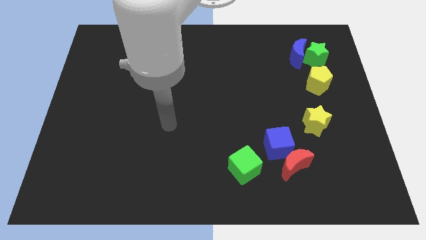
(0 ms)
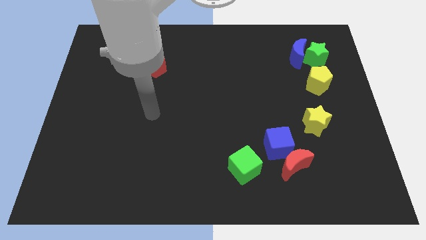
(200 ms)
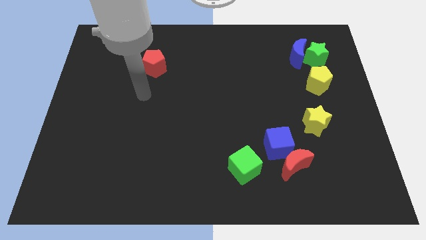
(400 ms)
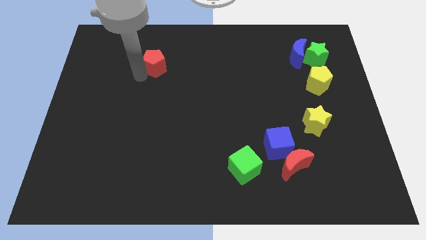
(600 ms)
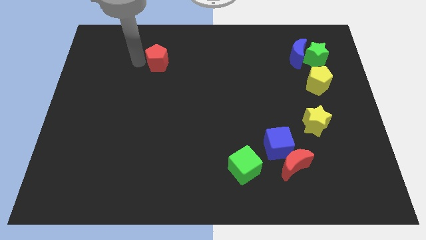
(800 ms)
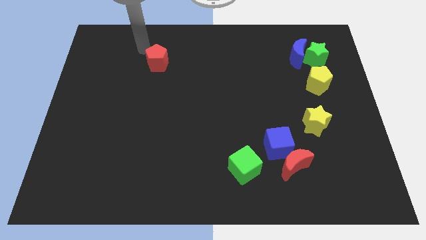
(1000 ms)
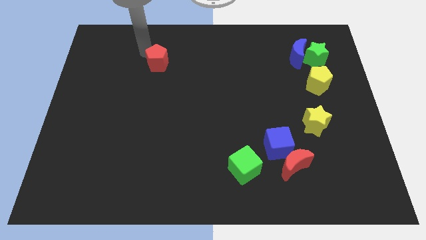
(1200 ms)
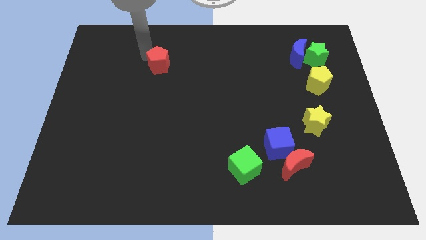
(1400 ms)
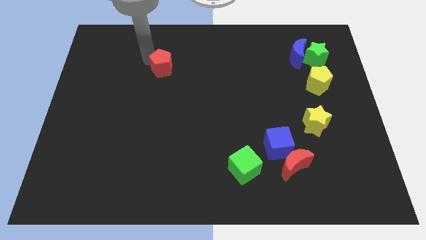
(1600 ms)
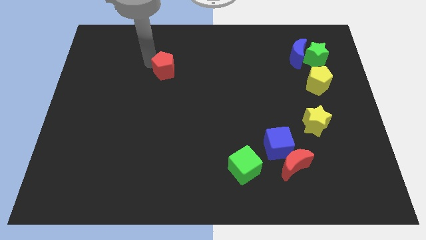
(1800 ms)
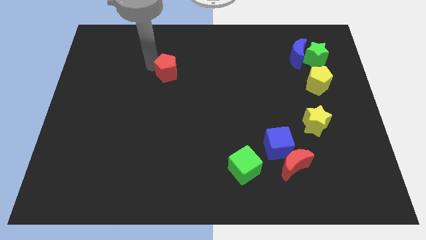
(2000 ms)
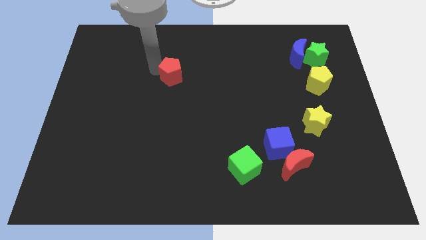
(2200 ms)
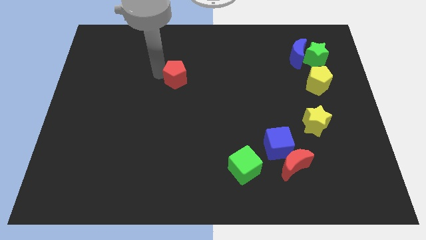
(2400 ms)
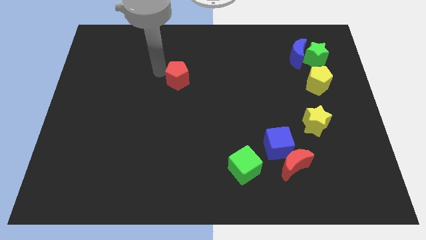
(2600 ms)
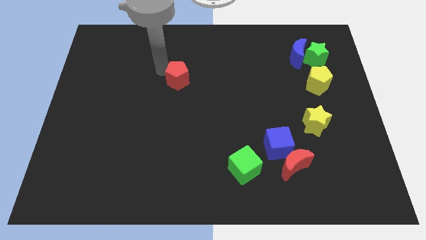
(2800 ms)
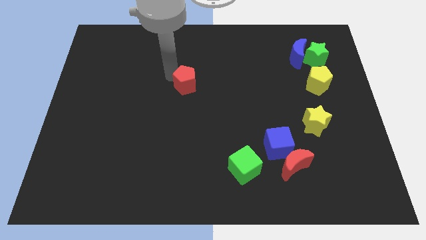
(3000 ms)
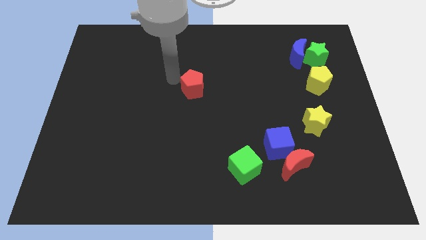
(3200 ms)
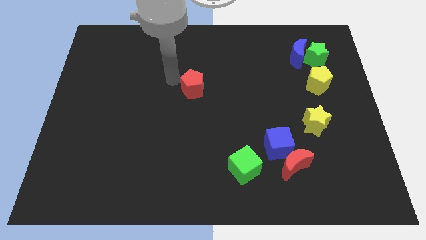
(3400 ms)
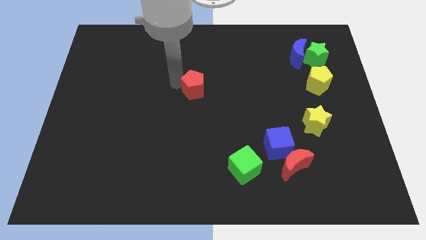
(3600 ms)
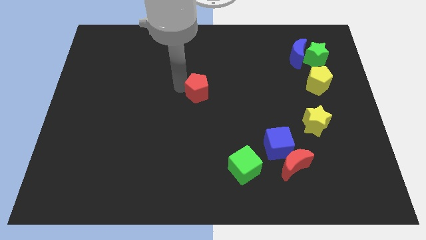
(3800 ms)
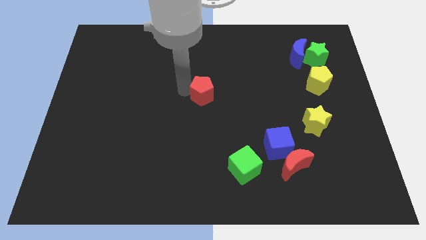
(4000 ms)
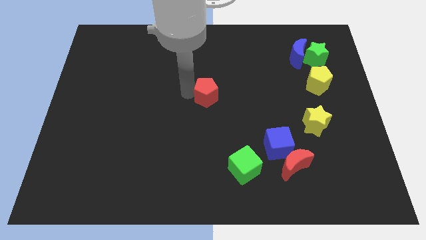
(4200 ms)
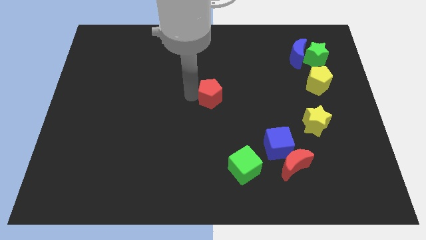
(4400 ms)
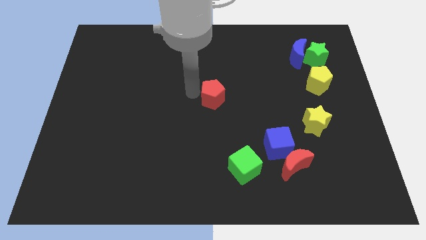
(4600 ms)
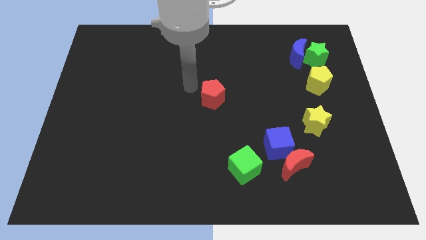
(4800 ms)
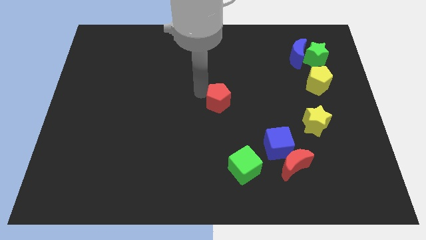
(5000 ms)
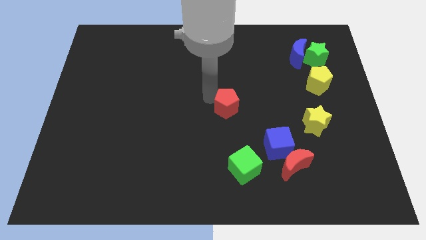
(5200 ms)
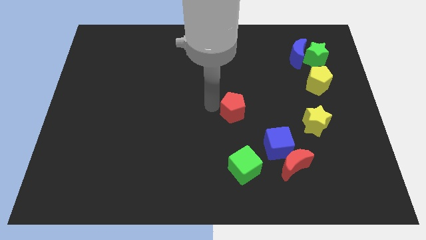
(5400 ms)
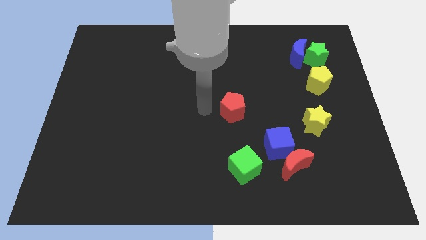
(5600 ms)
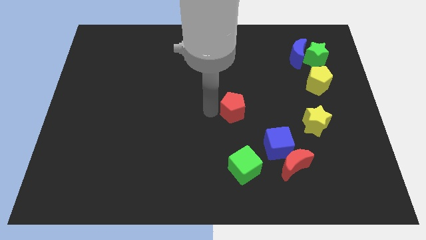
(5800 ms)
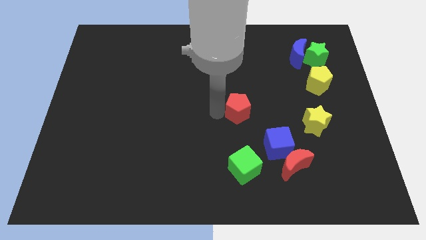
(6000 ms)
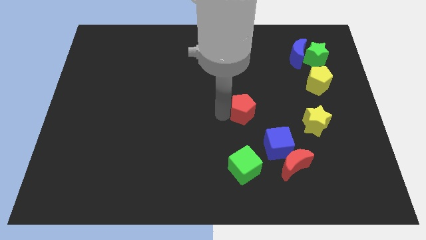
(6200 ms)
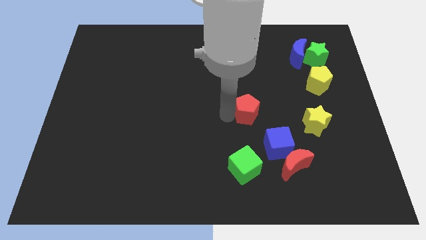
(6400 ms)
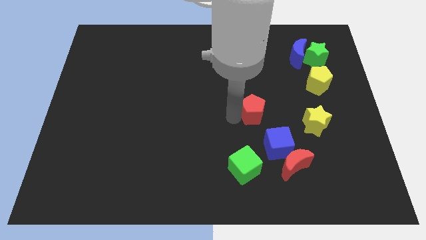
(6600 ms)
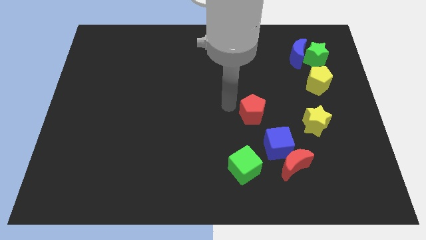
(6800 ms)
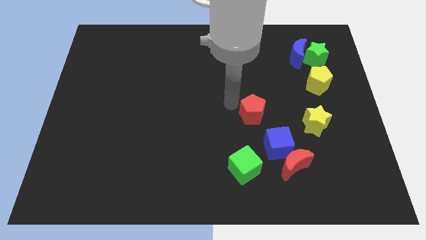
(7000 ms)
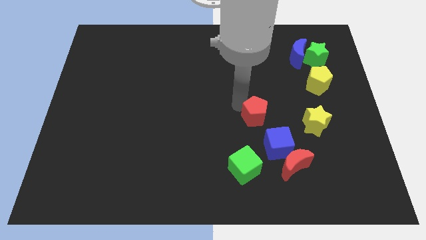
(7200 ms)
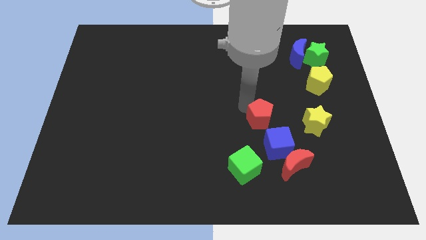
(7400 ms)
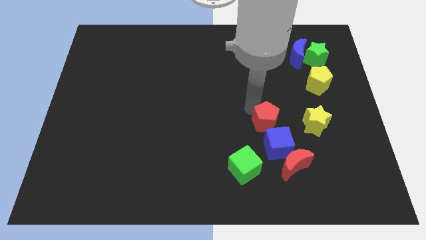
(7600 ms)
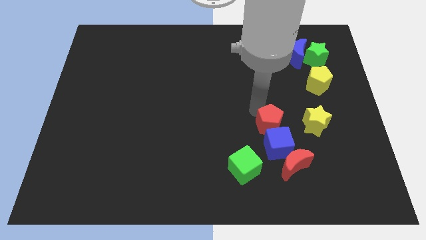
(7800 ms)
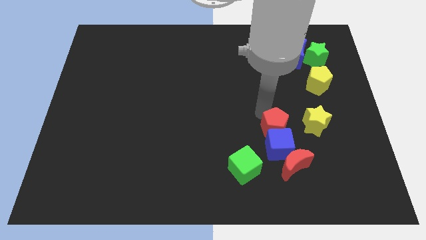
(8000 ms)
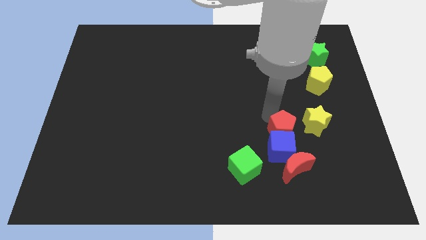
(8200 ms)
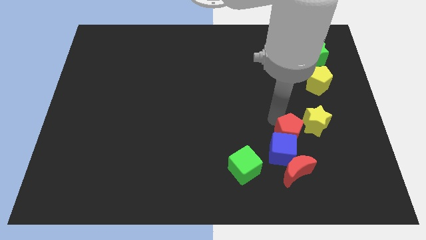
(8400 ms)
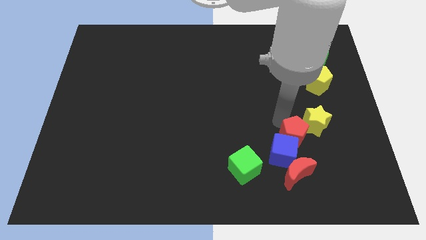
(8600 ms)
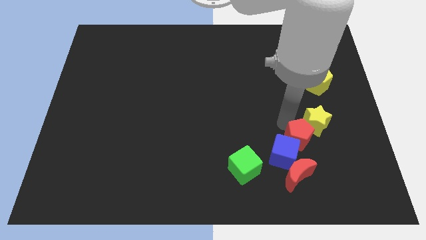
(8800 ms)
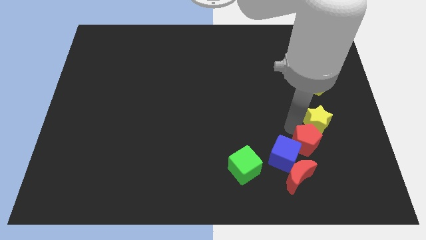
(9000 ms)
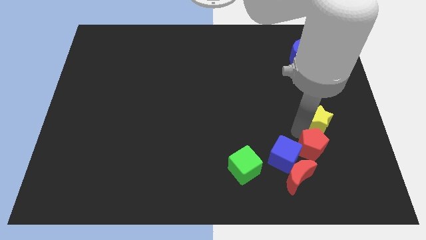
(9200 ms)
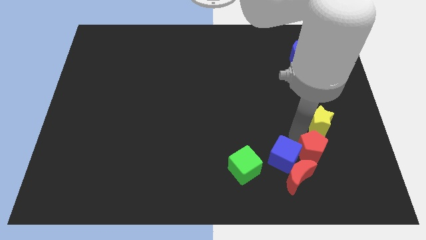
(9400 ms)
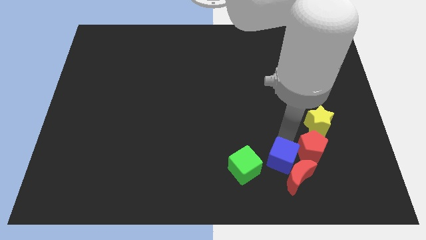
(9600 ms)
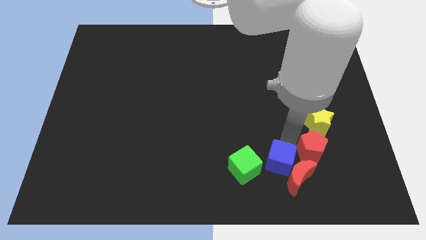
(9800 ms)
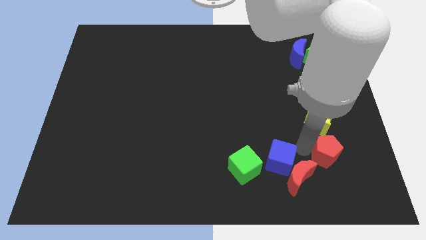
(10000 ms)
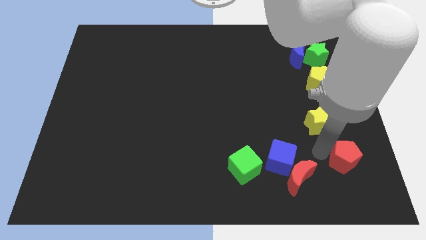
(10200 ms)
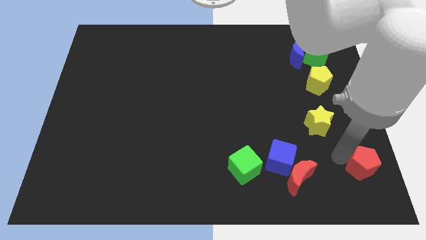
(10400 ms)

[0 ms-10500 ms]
slide the red pentagon to the bottom right

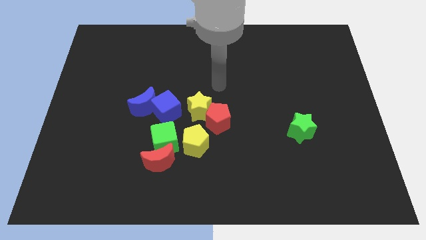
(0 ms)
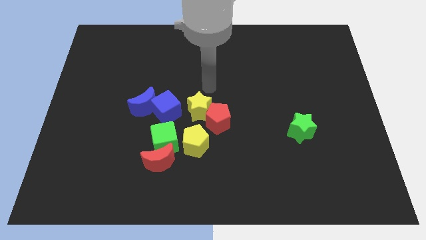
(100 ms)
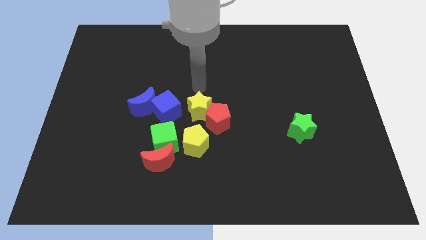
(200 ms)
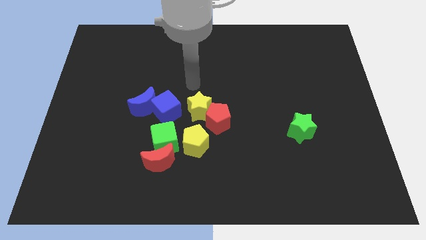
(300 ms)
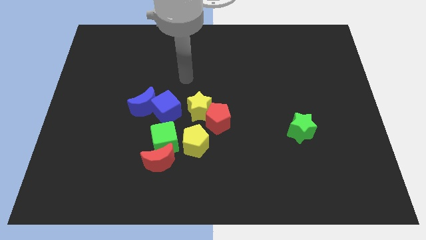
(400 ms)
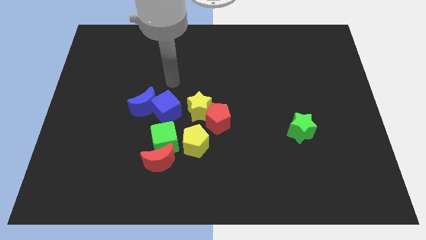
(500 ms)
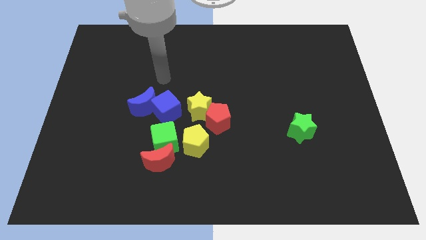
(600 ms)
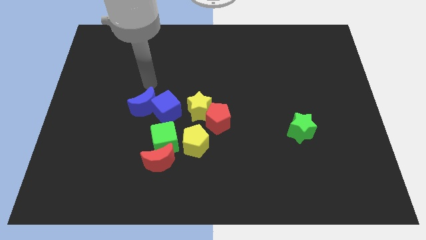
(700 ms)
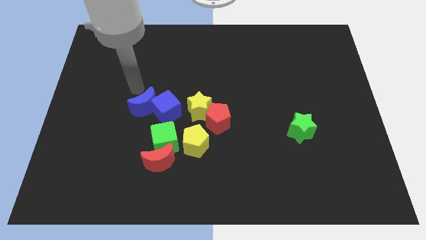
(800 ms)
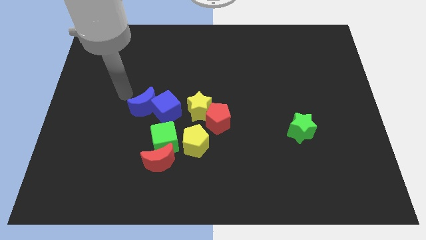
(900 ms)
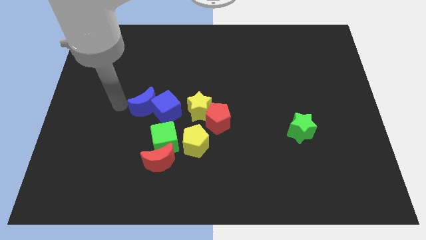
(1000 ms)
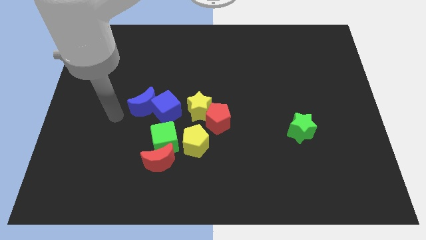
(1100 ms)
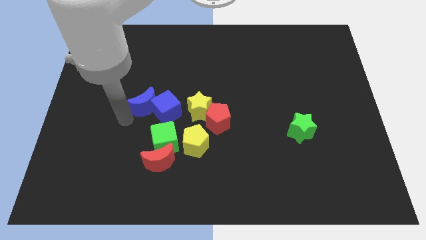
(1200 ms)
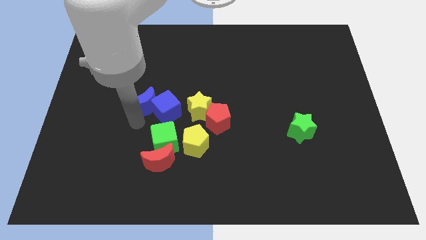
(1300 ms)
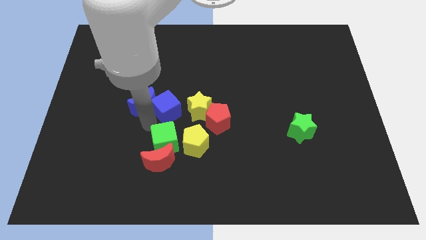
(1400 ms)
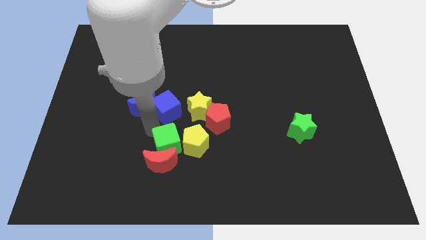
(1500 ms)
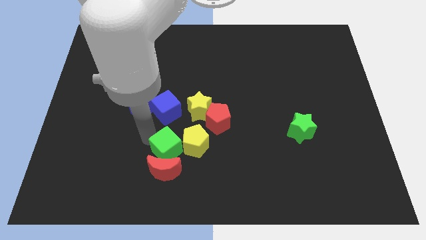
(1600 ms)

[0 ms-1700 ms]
push the red moon to the bottom side
